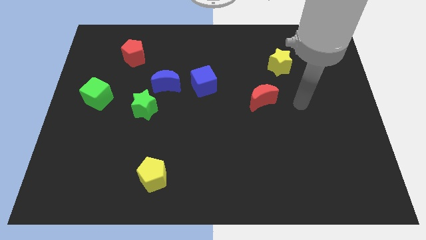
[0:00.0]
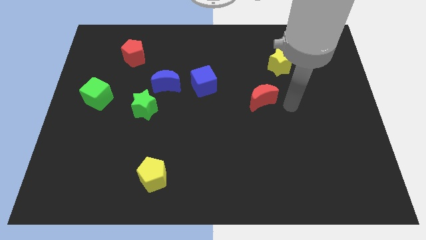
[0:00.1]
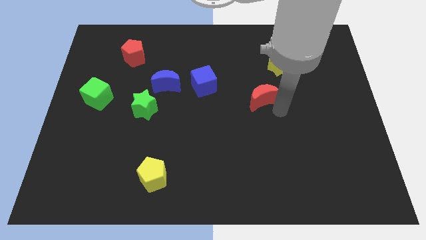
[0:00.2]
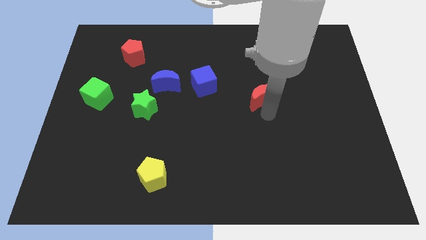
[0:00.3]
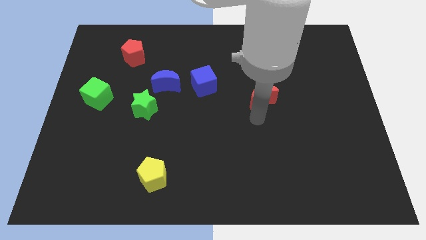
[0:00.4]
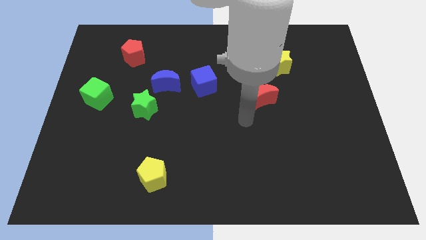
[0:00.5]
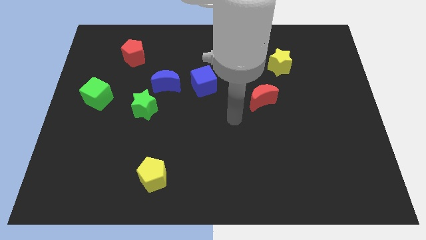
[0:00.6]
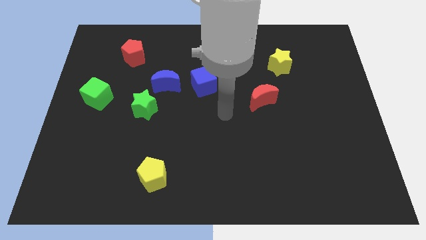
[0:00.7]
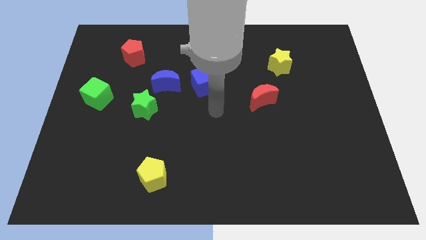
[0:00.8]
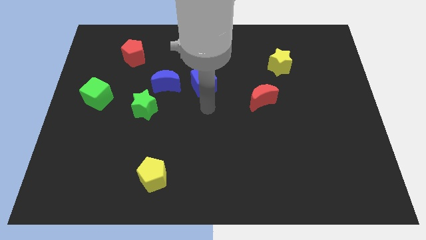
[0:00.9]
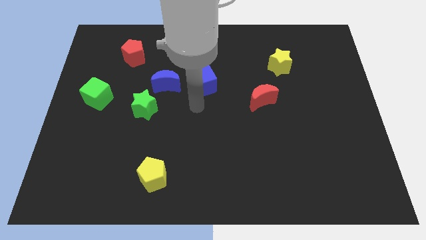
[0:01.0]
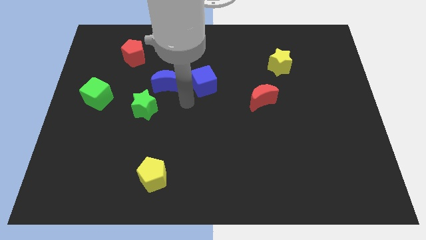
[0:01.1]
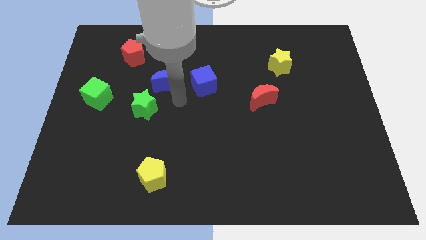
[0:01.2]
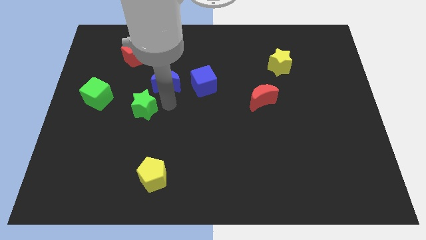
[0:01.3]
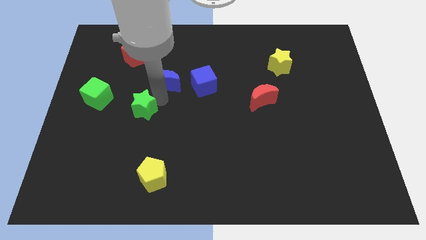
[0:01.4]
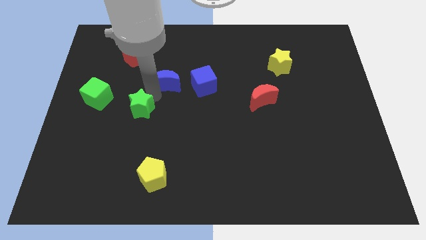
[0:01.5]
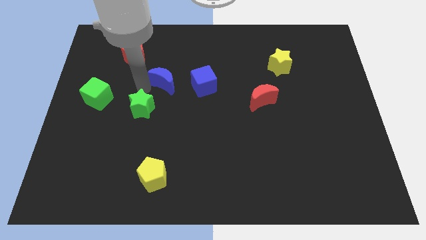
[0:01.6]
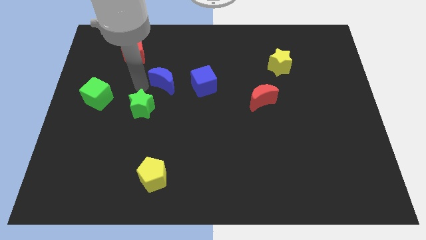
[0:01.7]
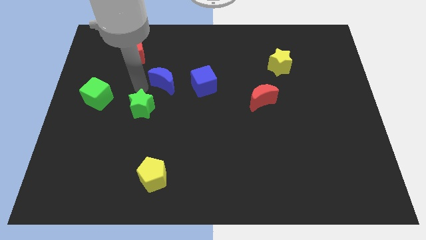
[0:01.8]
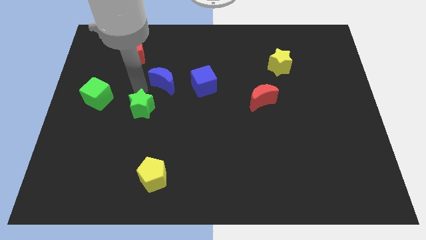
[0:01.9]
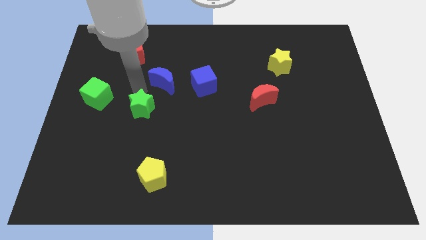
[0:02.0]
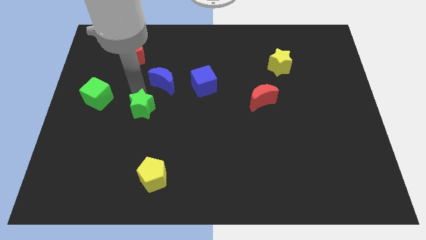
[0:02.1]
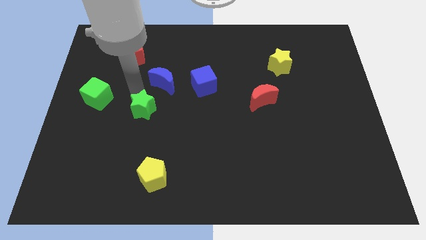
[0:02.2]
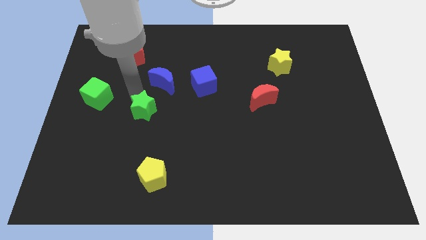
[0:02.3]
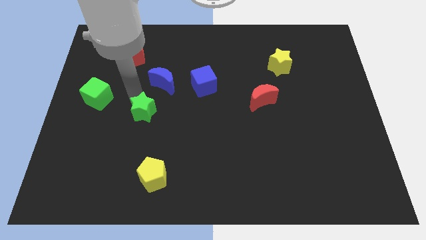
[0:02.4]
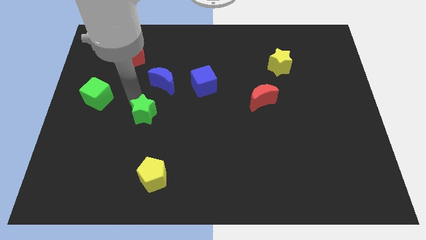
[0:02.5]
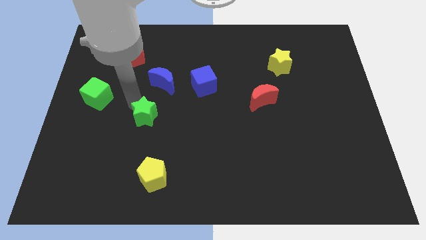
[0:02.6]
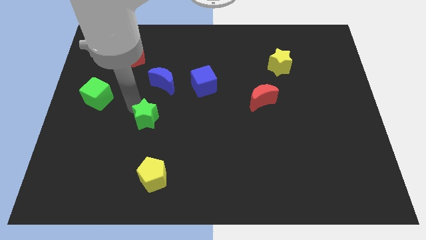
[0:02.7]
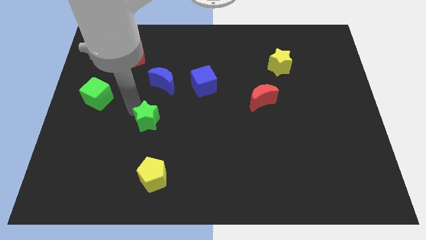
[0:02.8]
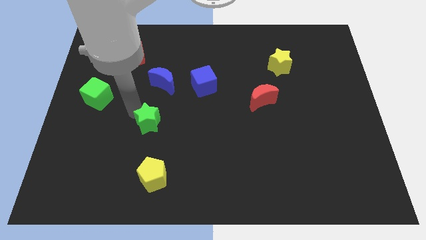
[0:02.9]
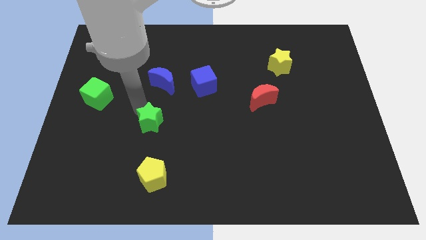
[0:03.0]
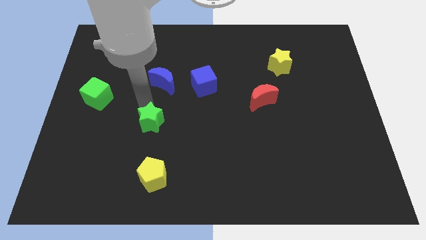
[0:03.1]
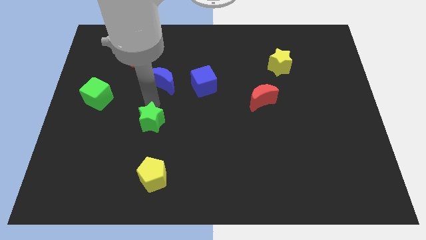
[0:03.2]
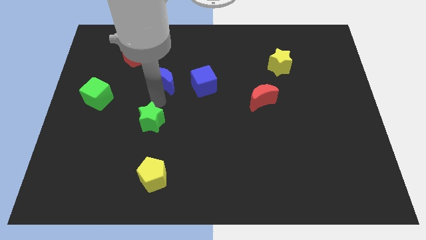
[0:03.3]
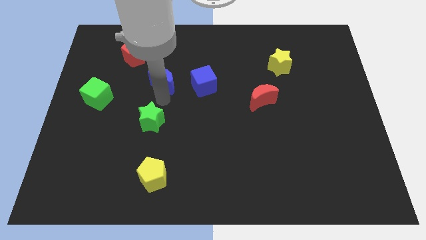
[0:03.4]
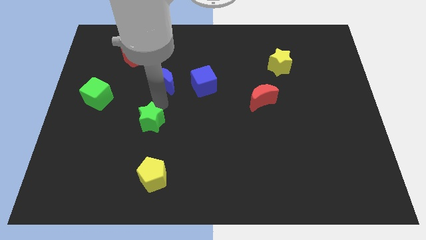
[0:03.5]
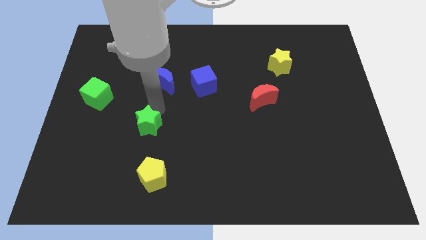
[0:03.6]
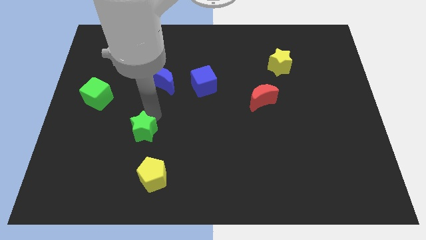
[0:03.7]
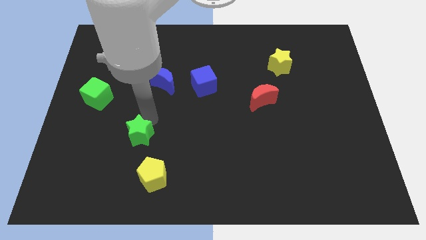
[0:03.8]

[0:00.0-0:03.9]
push the green star downwards slightly

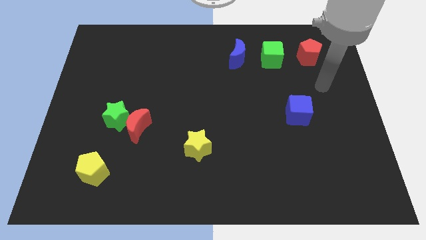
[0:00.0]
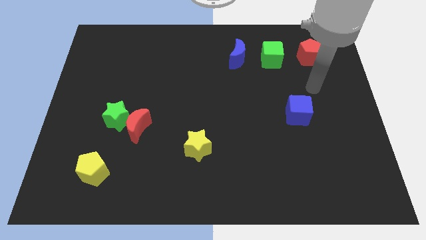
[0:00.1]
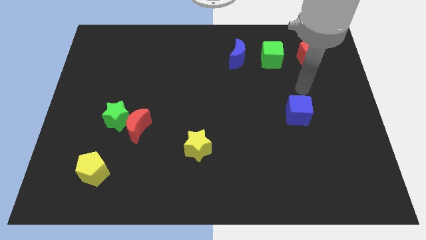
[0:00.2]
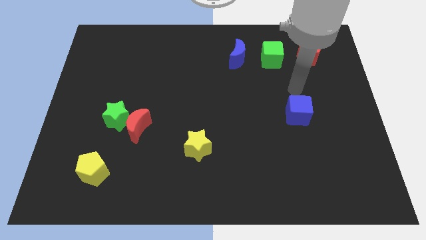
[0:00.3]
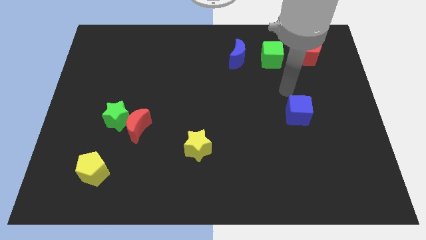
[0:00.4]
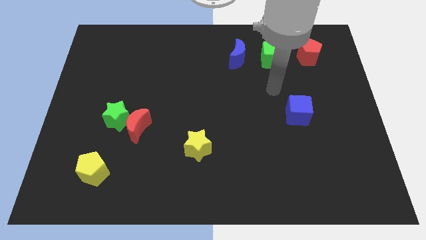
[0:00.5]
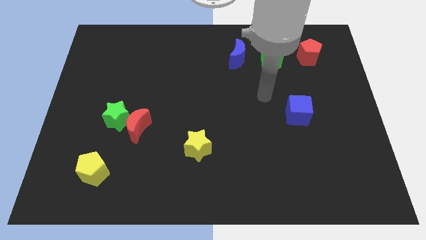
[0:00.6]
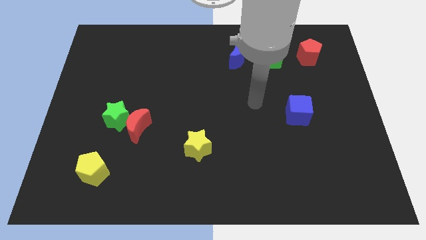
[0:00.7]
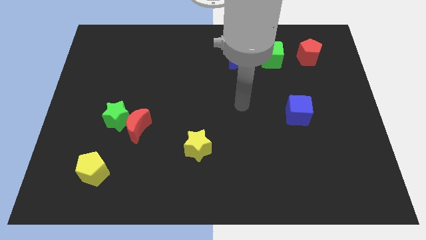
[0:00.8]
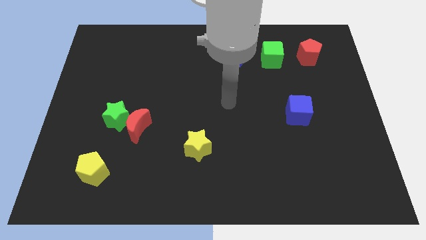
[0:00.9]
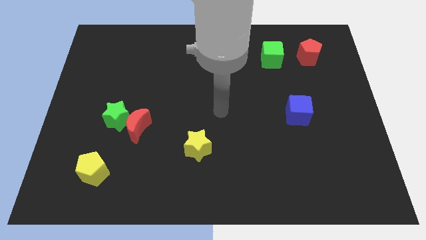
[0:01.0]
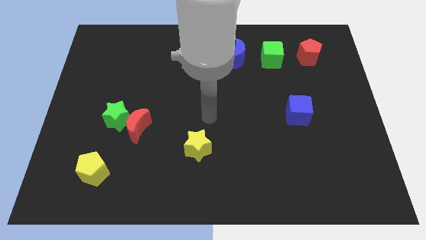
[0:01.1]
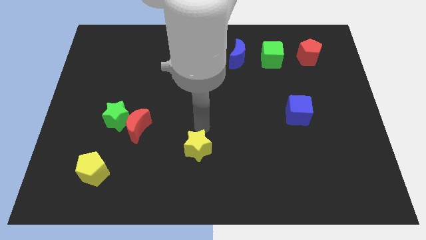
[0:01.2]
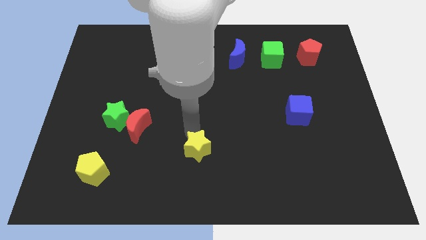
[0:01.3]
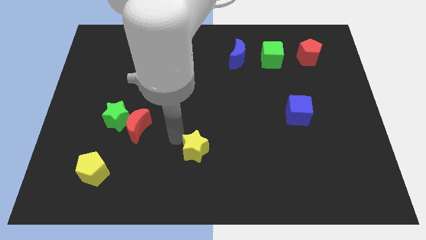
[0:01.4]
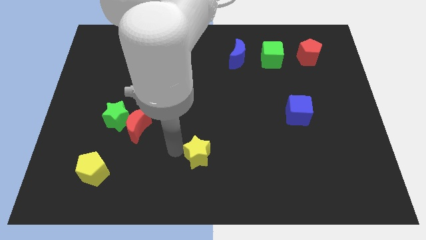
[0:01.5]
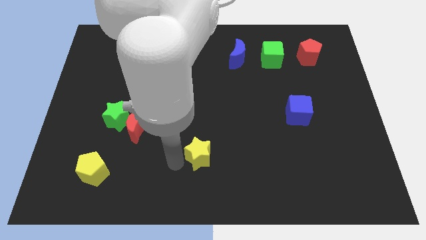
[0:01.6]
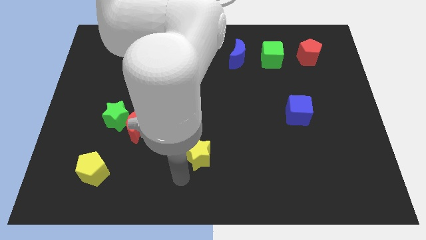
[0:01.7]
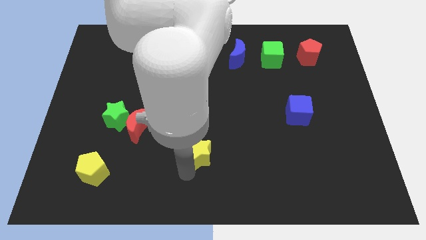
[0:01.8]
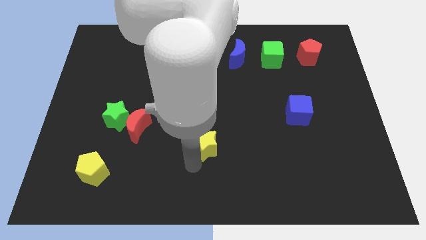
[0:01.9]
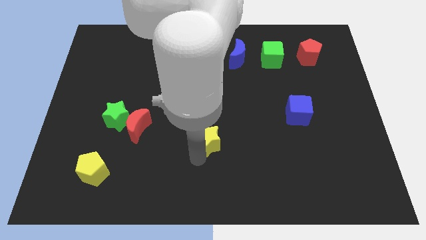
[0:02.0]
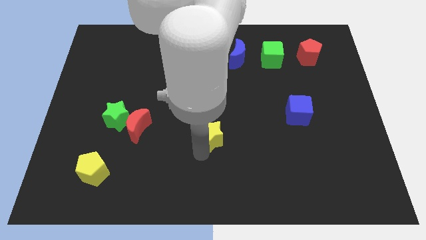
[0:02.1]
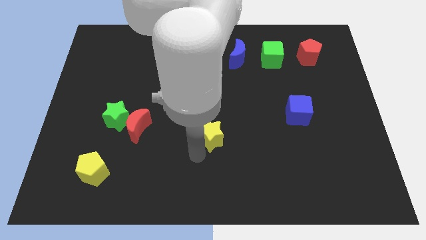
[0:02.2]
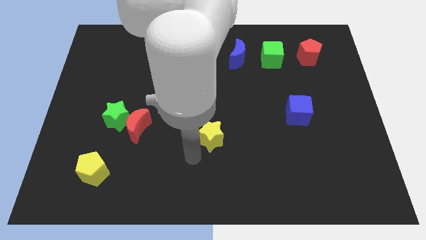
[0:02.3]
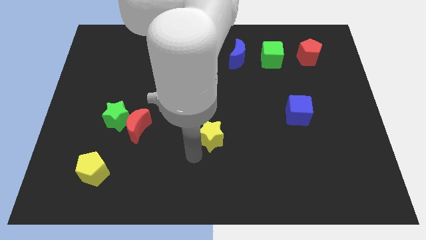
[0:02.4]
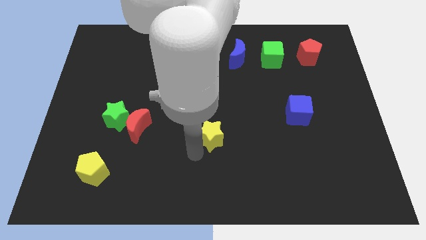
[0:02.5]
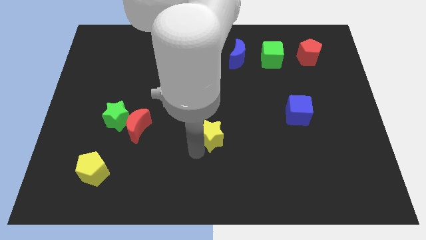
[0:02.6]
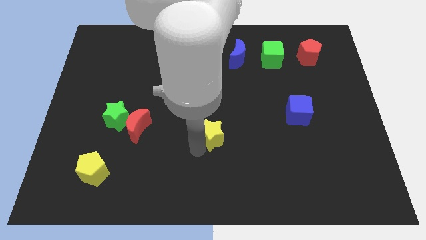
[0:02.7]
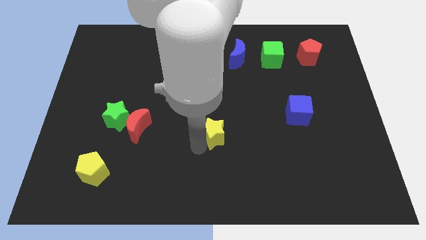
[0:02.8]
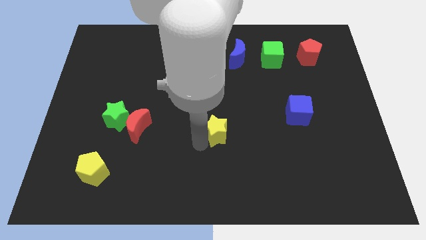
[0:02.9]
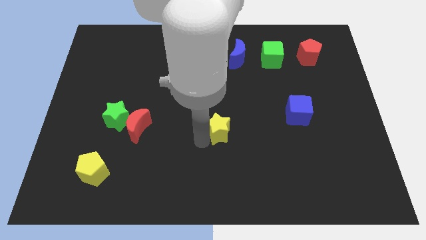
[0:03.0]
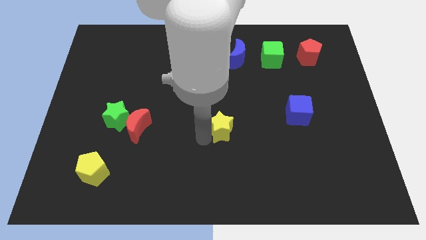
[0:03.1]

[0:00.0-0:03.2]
push the yellow star somewhat diagonally up and to the right

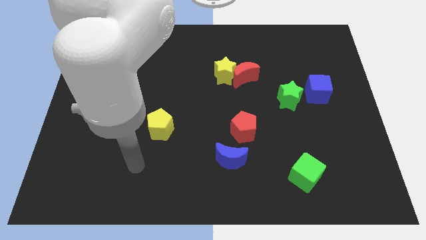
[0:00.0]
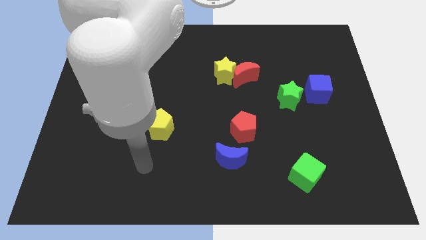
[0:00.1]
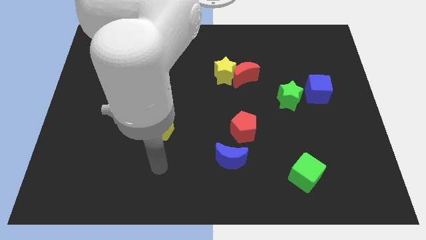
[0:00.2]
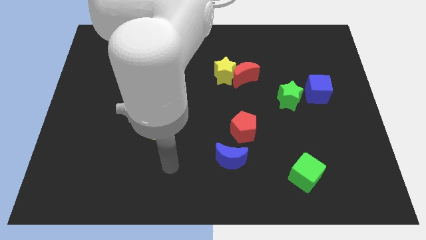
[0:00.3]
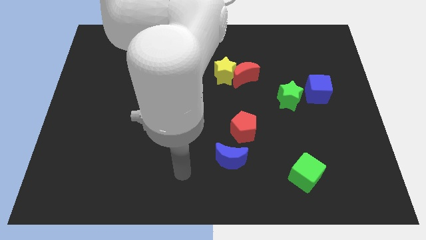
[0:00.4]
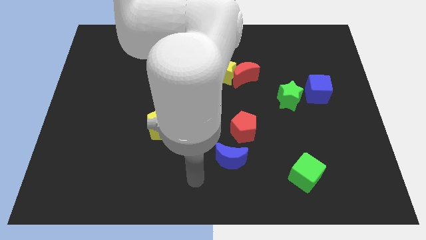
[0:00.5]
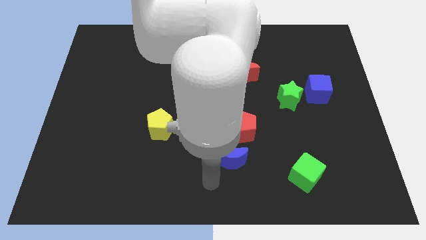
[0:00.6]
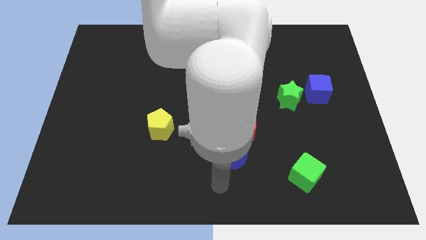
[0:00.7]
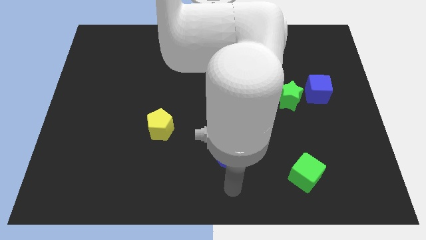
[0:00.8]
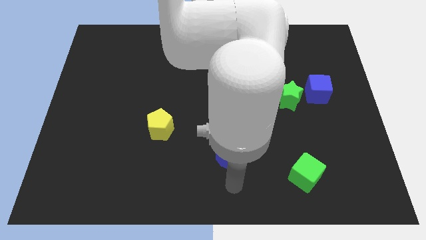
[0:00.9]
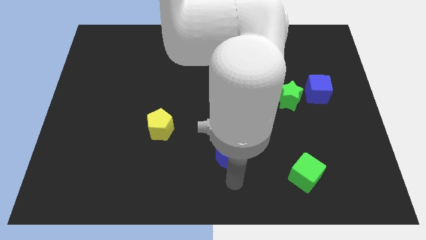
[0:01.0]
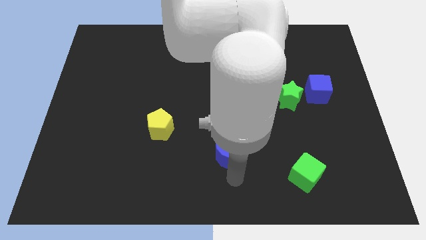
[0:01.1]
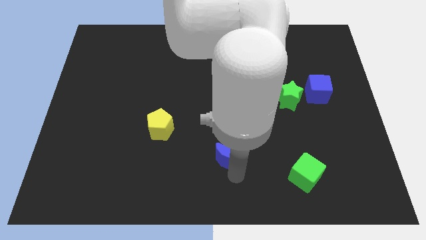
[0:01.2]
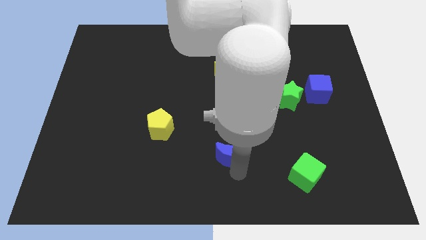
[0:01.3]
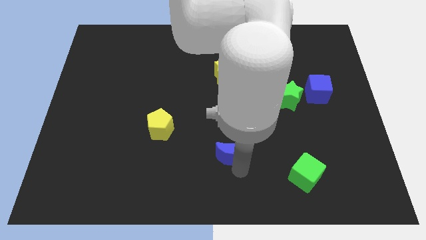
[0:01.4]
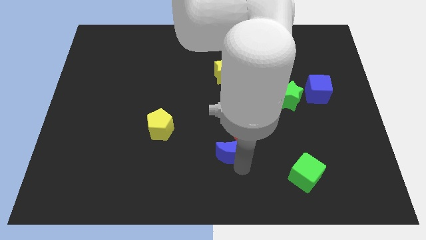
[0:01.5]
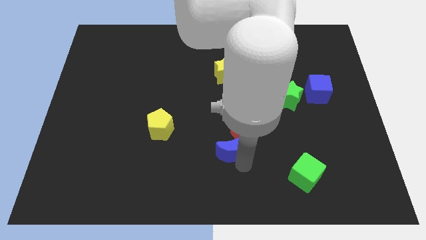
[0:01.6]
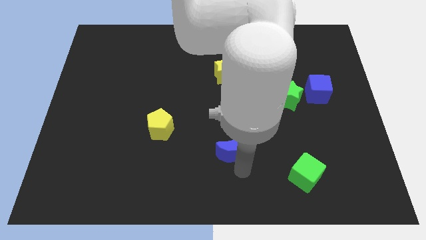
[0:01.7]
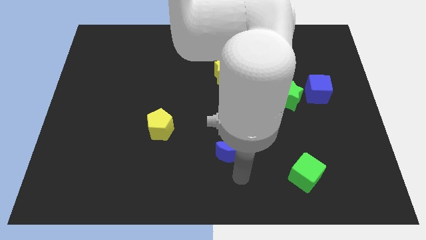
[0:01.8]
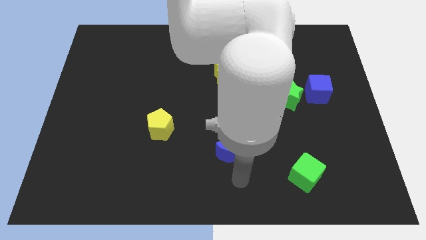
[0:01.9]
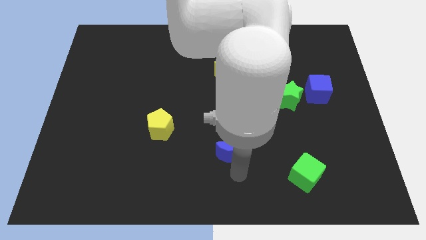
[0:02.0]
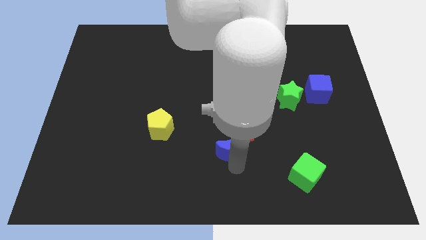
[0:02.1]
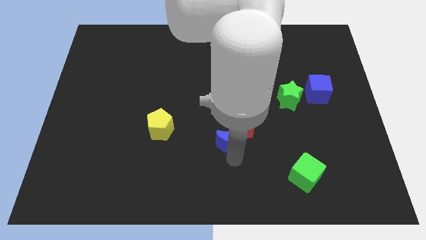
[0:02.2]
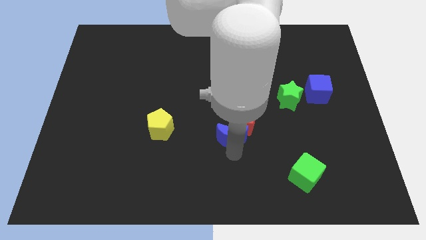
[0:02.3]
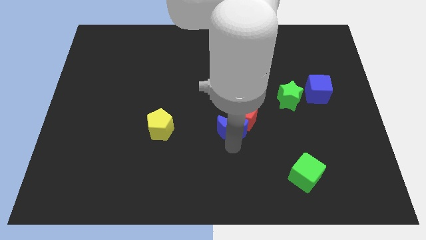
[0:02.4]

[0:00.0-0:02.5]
slightly slide the blue moon upwards
